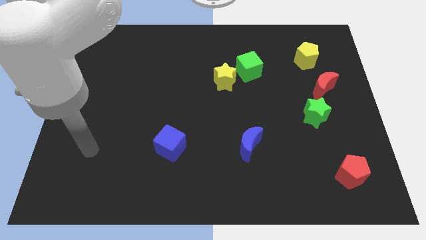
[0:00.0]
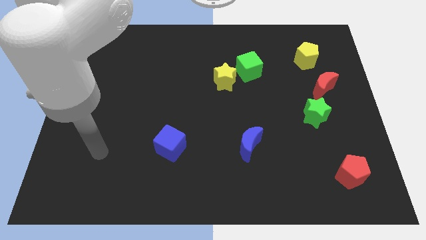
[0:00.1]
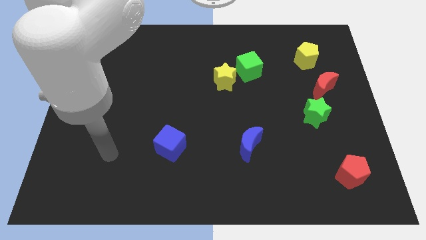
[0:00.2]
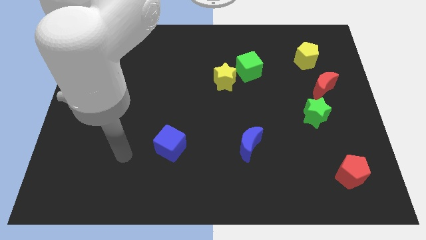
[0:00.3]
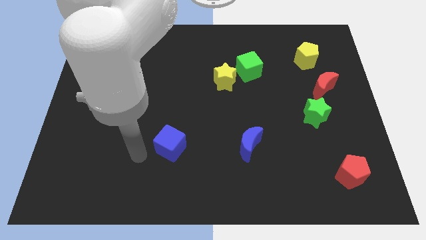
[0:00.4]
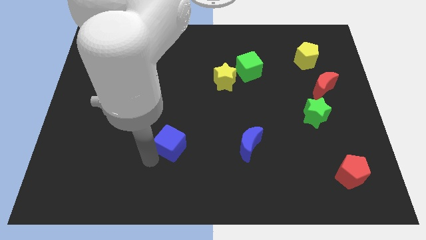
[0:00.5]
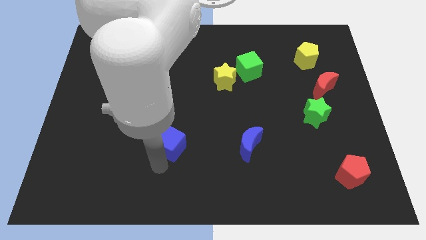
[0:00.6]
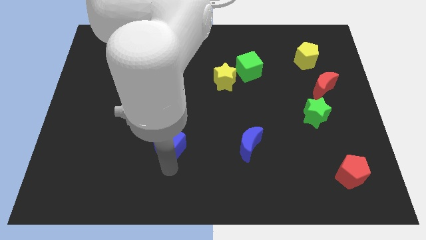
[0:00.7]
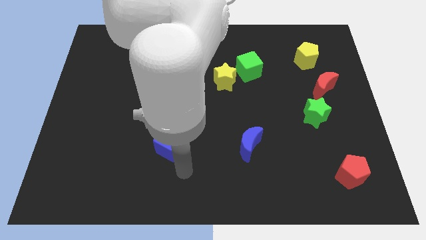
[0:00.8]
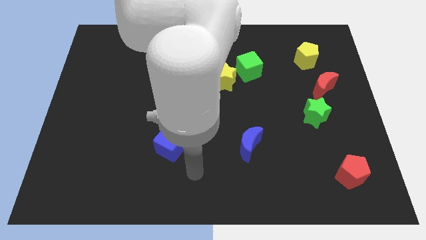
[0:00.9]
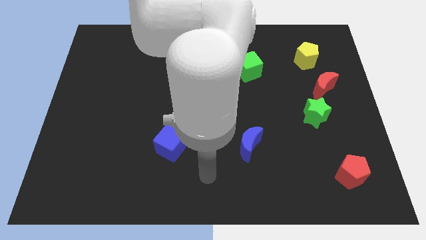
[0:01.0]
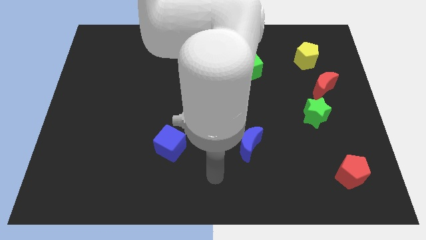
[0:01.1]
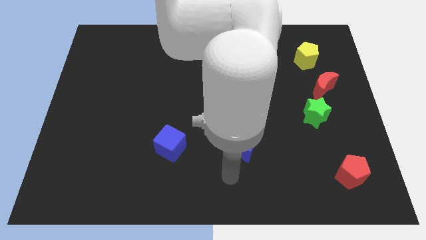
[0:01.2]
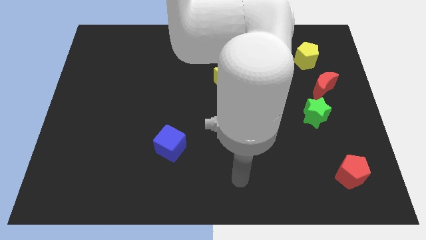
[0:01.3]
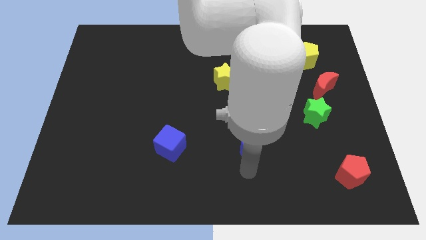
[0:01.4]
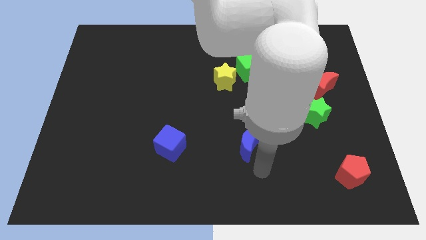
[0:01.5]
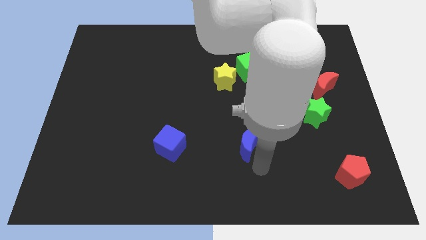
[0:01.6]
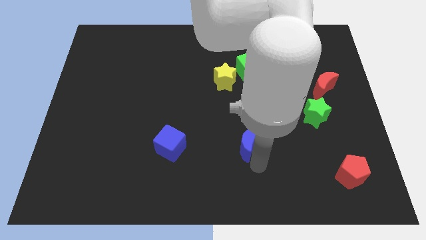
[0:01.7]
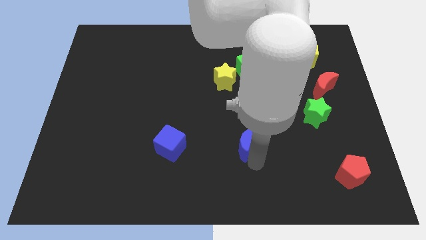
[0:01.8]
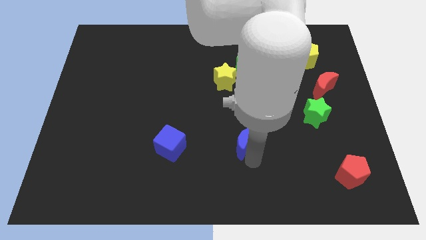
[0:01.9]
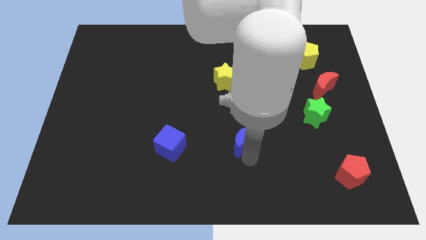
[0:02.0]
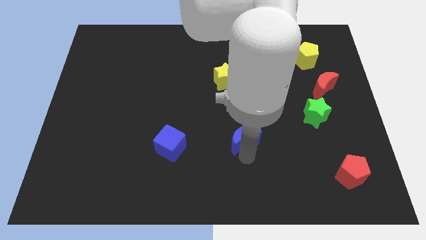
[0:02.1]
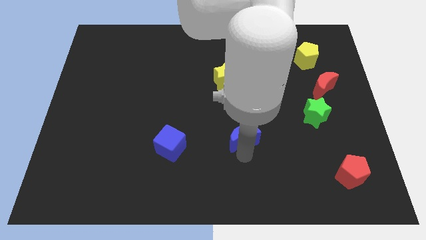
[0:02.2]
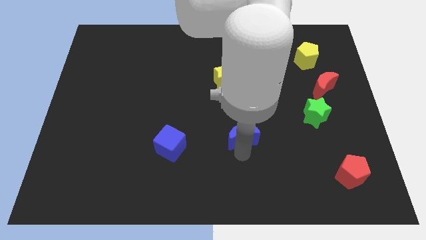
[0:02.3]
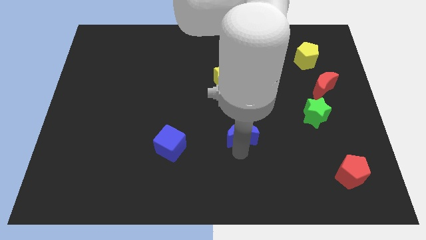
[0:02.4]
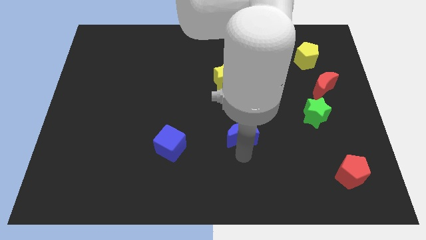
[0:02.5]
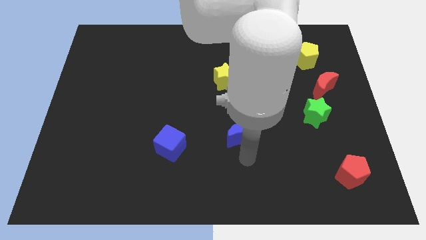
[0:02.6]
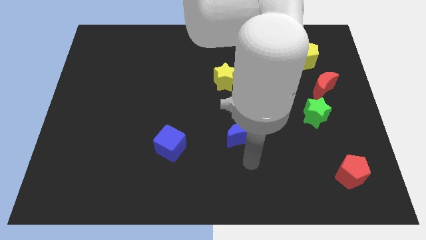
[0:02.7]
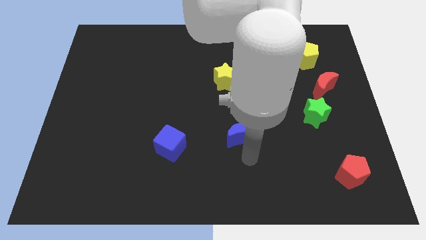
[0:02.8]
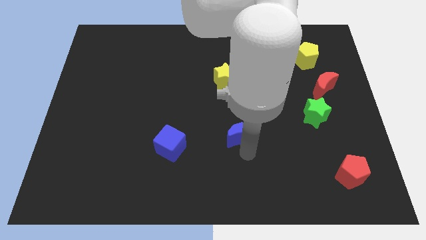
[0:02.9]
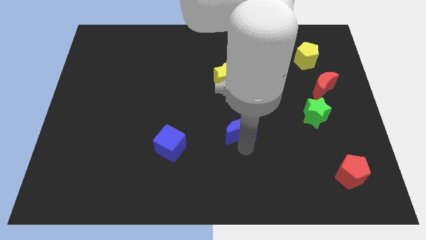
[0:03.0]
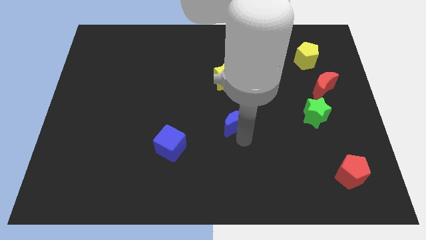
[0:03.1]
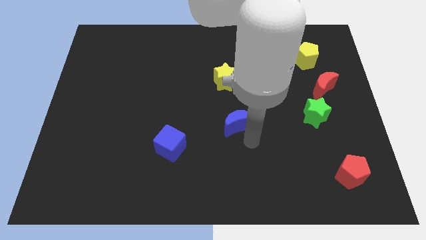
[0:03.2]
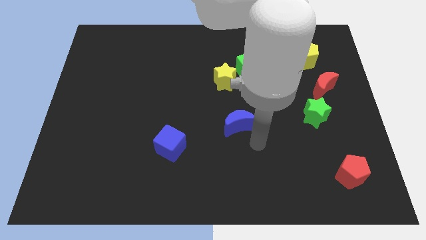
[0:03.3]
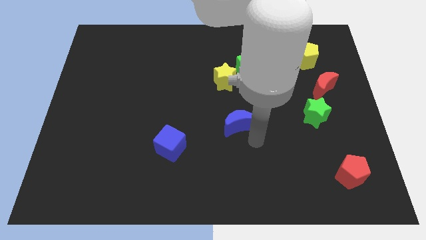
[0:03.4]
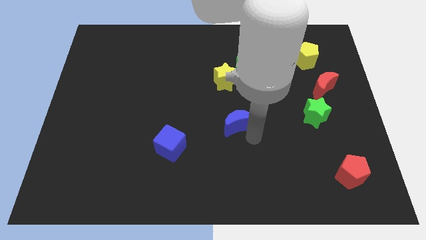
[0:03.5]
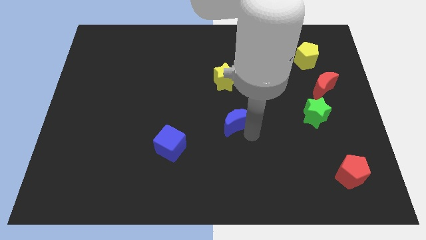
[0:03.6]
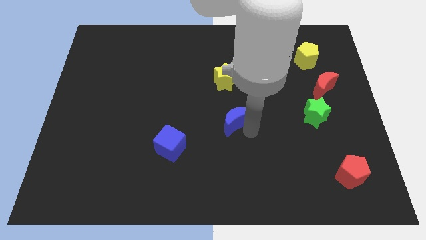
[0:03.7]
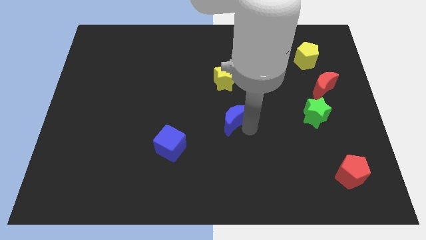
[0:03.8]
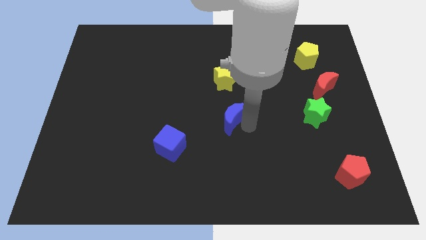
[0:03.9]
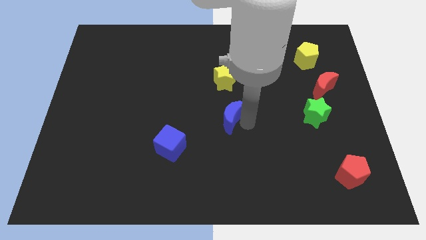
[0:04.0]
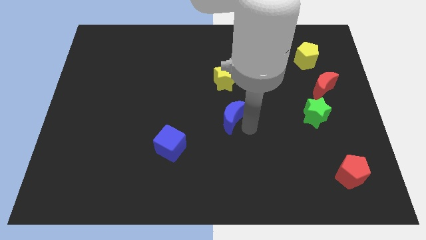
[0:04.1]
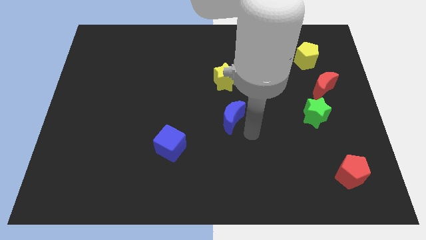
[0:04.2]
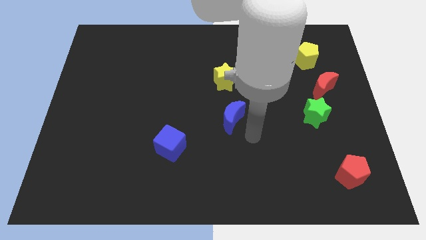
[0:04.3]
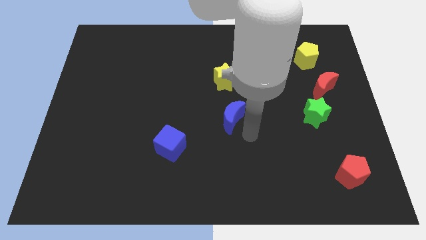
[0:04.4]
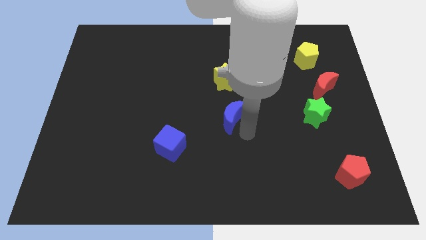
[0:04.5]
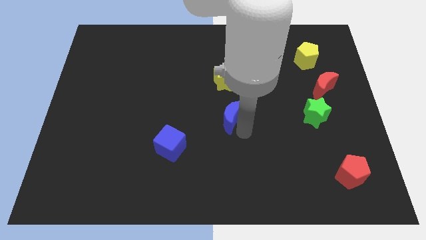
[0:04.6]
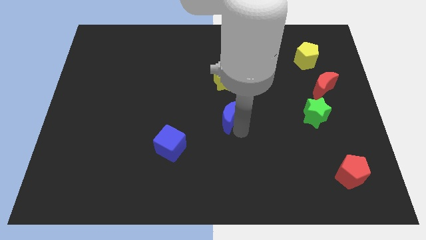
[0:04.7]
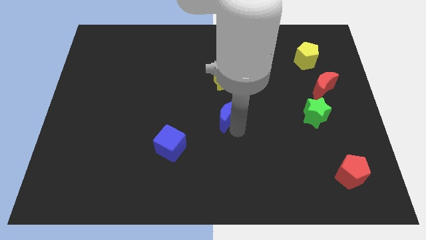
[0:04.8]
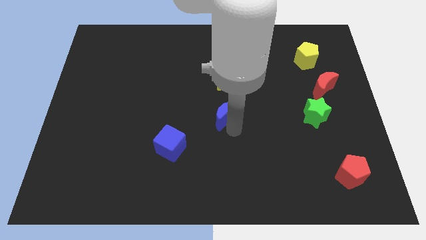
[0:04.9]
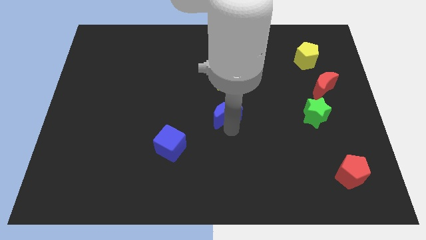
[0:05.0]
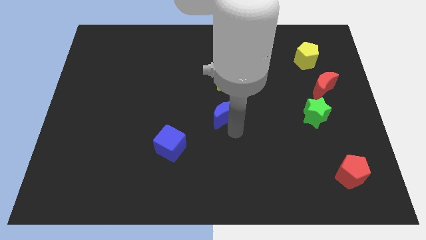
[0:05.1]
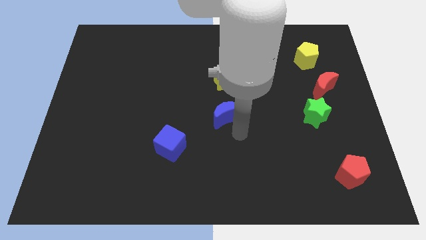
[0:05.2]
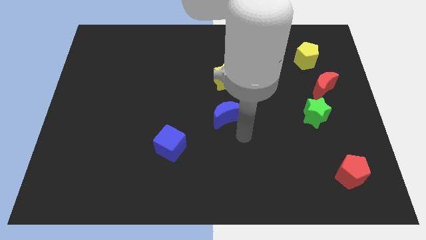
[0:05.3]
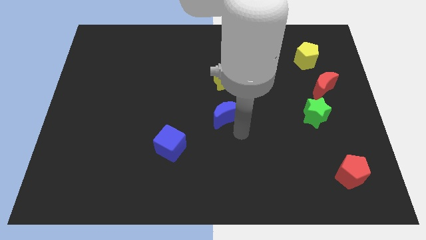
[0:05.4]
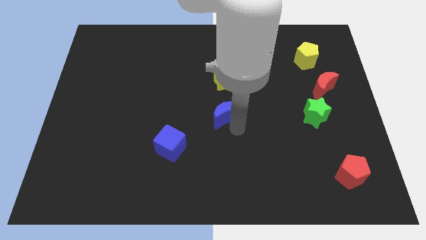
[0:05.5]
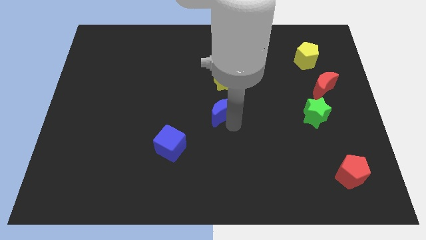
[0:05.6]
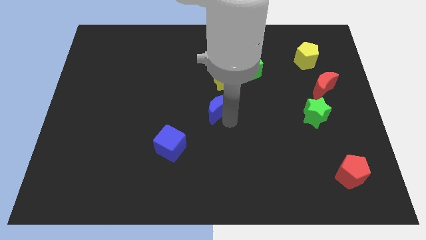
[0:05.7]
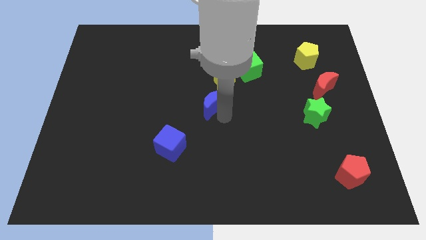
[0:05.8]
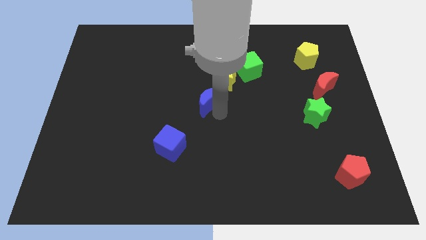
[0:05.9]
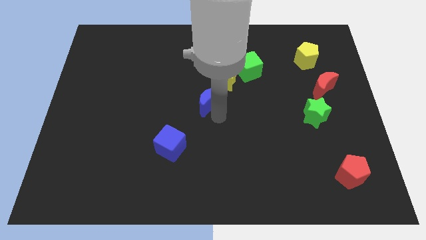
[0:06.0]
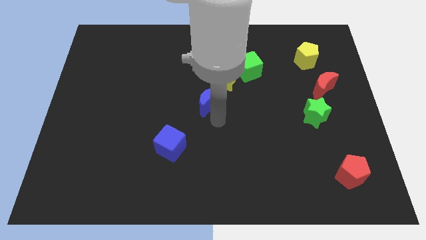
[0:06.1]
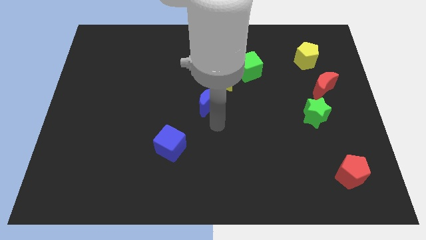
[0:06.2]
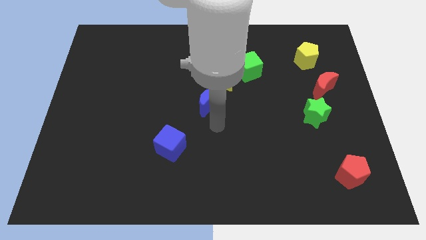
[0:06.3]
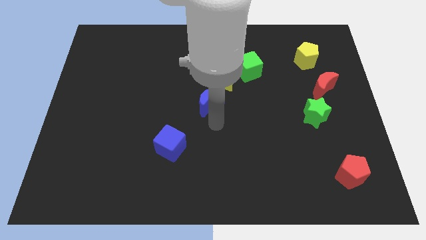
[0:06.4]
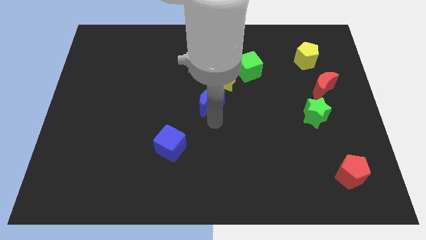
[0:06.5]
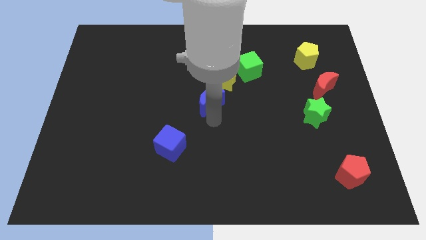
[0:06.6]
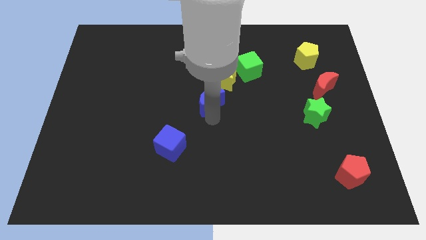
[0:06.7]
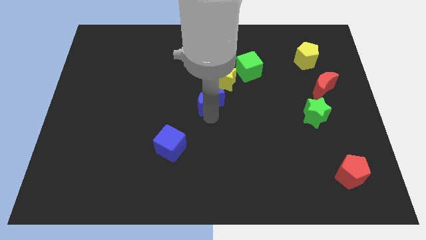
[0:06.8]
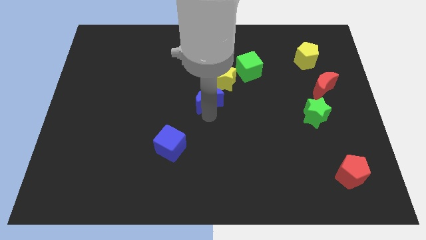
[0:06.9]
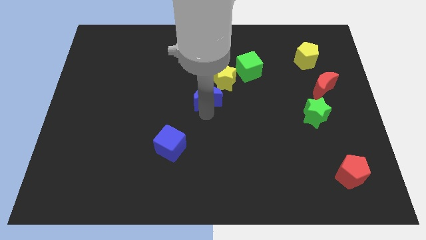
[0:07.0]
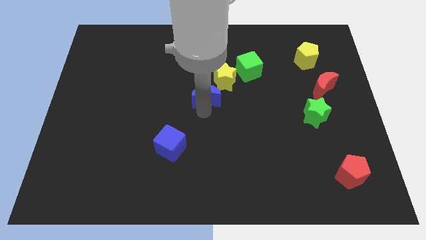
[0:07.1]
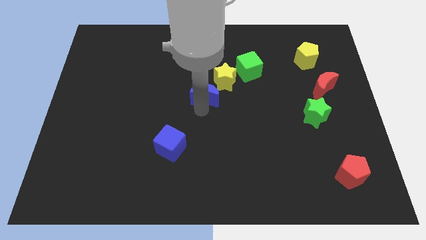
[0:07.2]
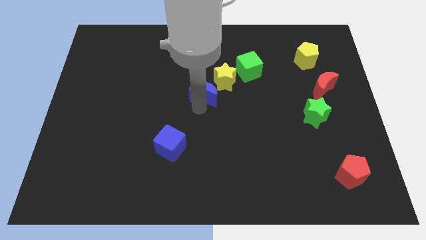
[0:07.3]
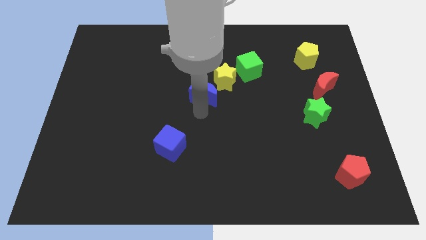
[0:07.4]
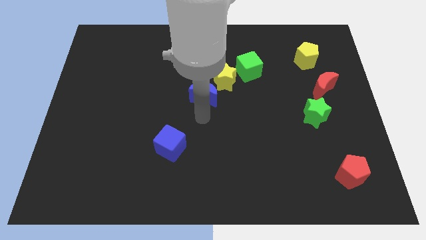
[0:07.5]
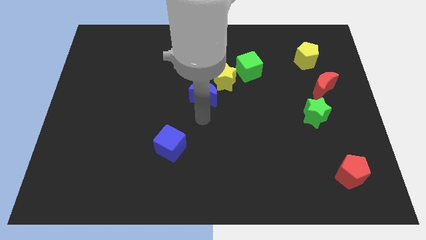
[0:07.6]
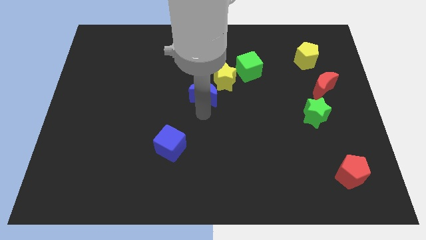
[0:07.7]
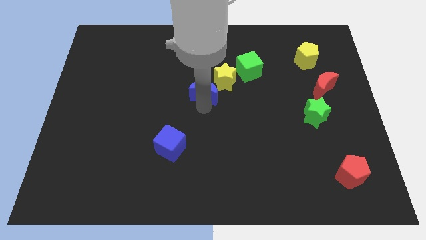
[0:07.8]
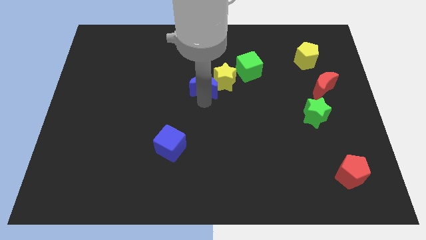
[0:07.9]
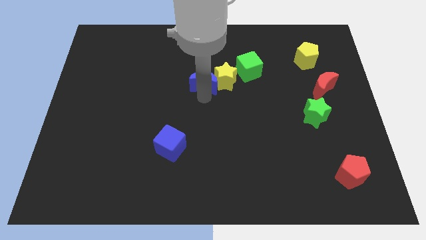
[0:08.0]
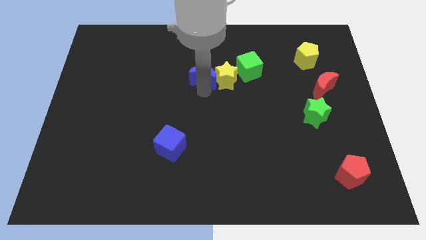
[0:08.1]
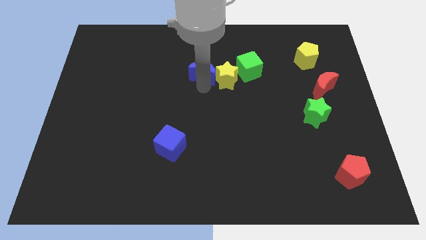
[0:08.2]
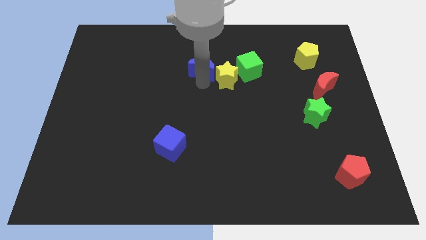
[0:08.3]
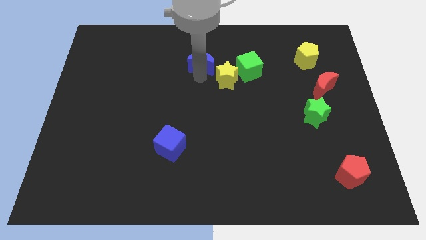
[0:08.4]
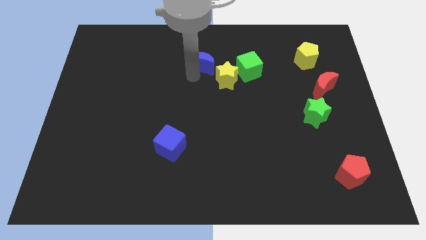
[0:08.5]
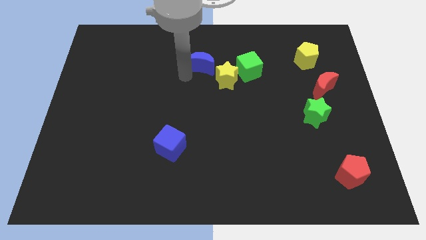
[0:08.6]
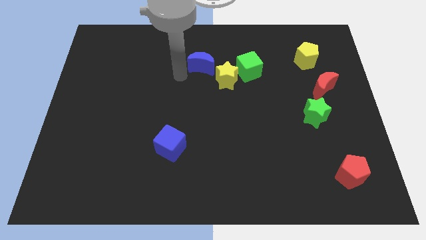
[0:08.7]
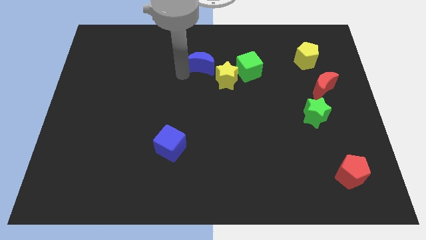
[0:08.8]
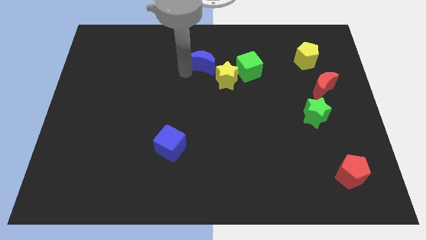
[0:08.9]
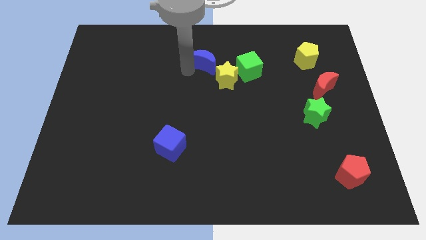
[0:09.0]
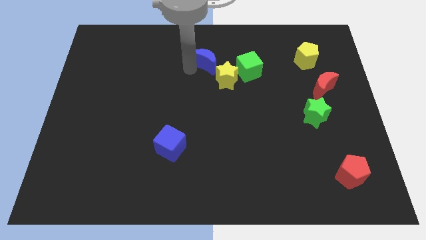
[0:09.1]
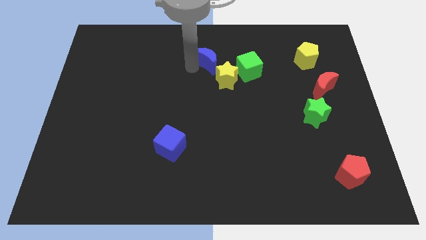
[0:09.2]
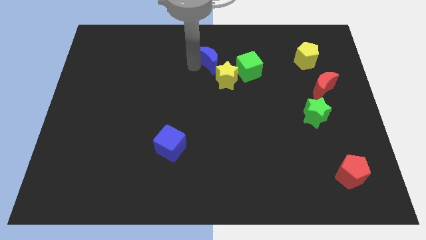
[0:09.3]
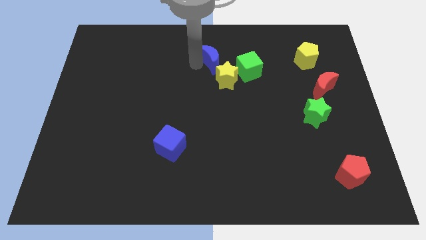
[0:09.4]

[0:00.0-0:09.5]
push the blue moon to the top left side of the green cube
